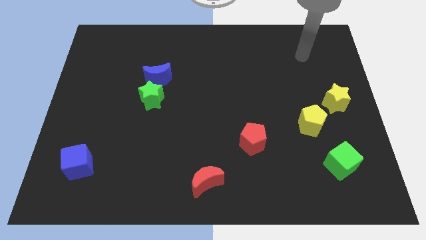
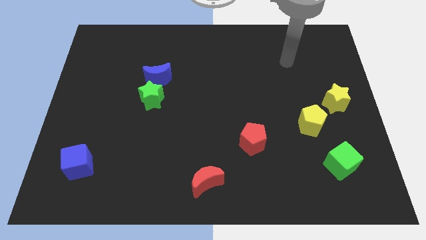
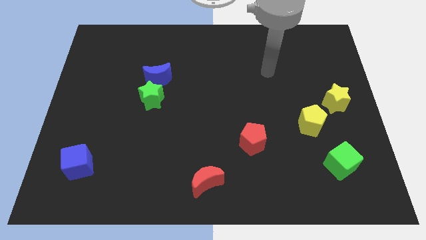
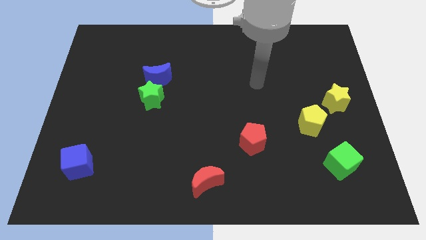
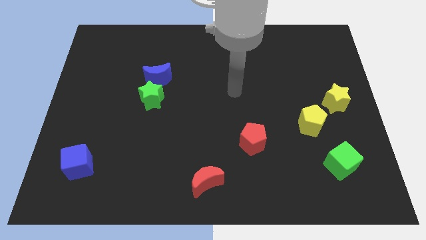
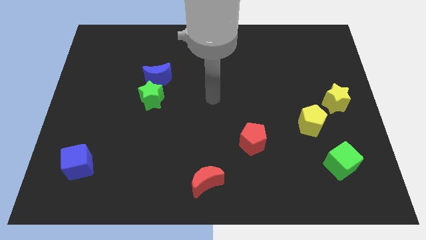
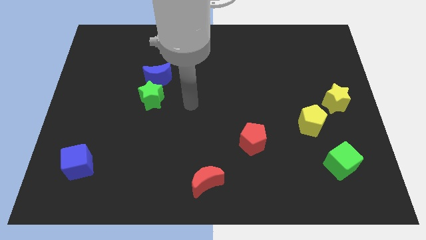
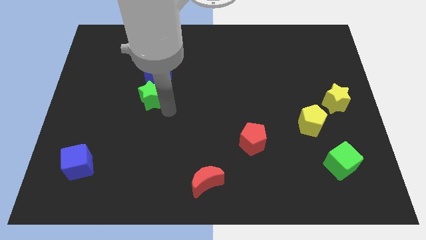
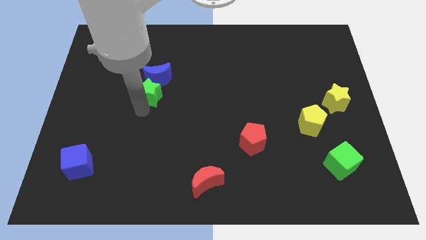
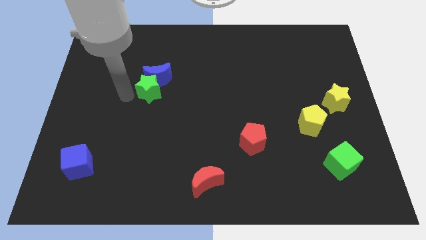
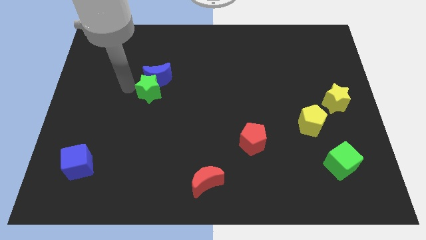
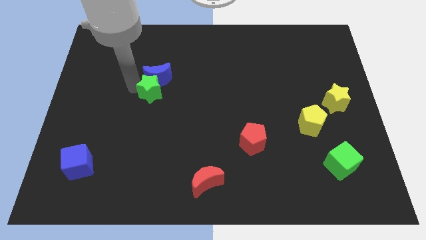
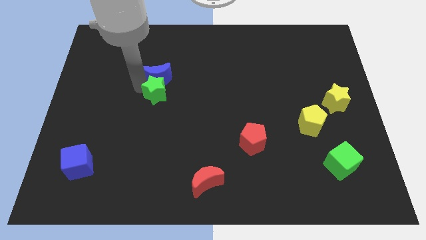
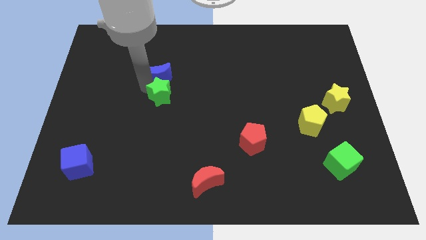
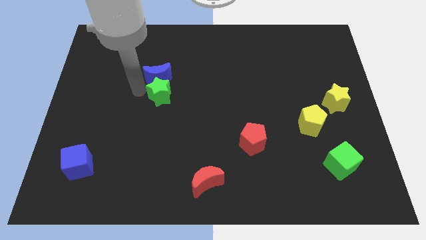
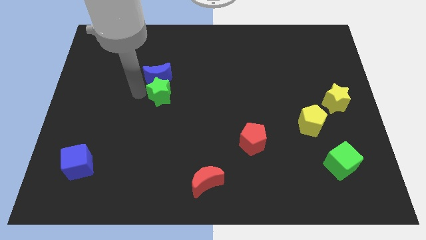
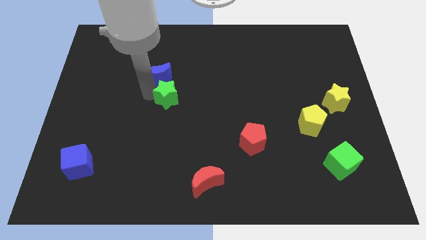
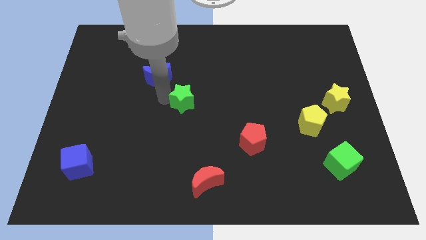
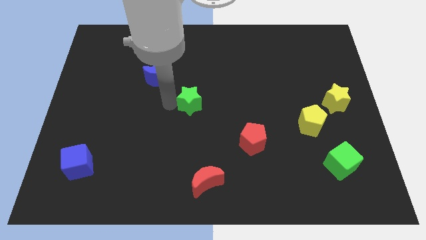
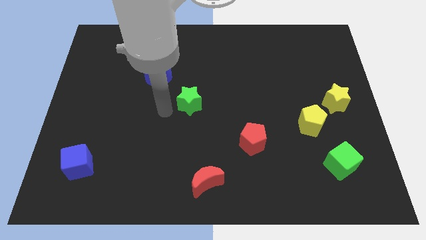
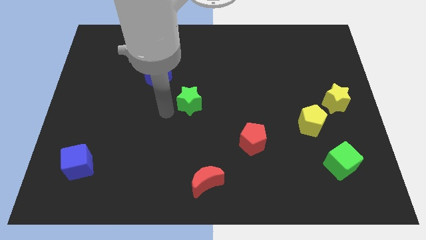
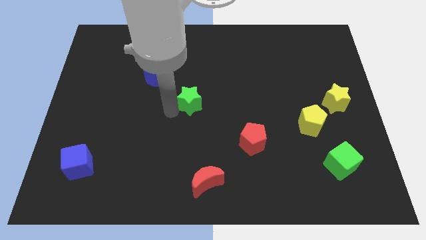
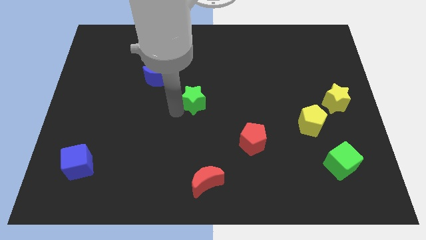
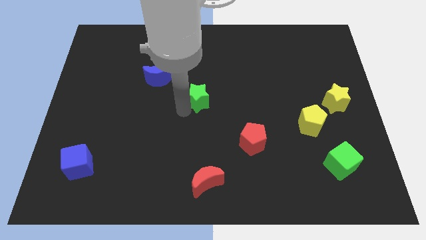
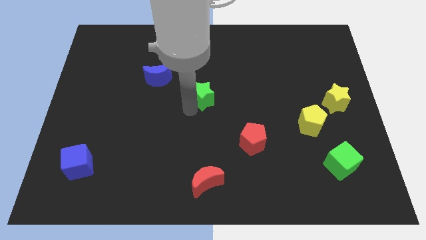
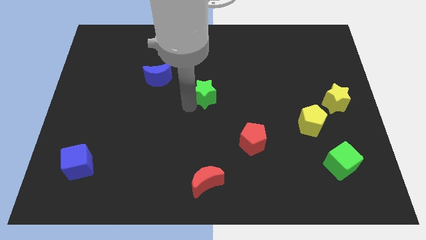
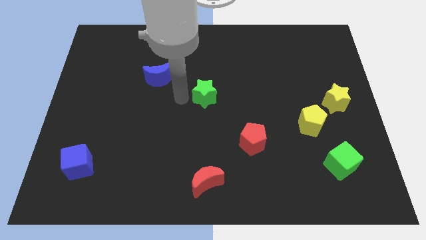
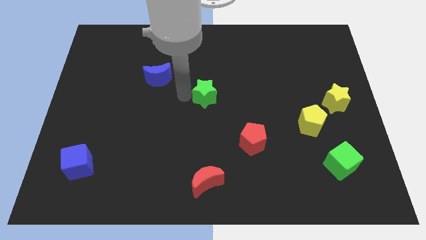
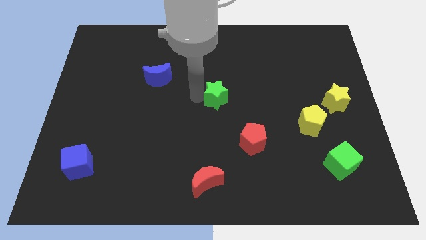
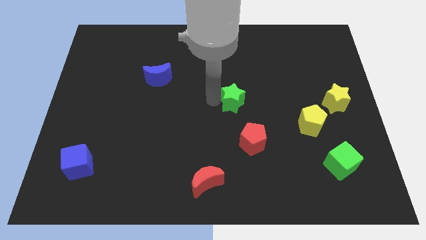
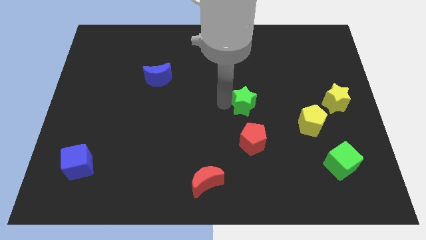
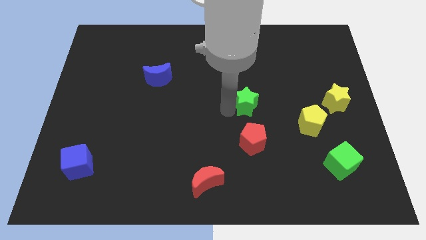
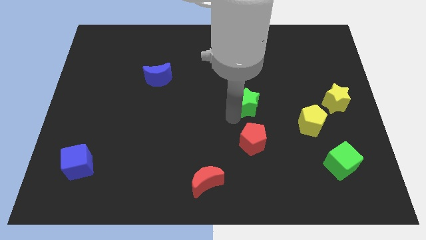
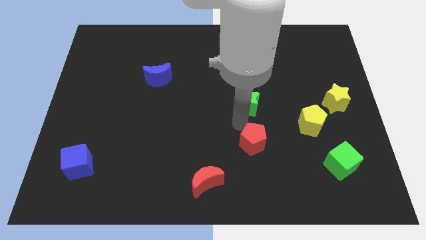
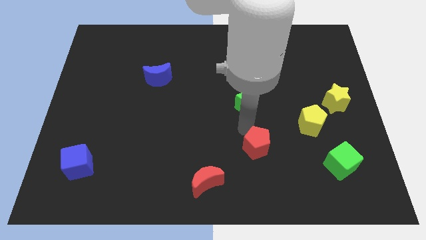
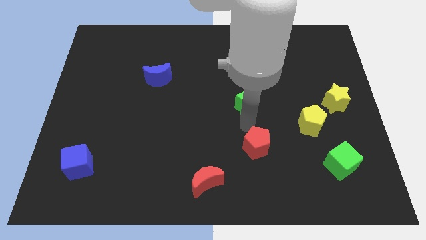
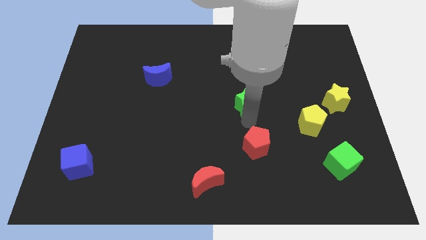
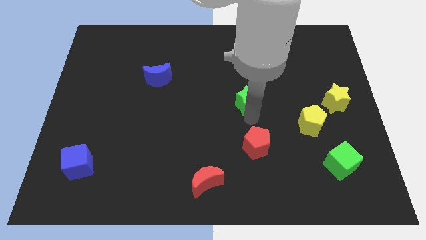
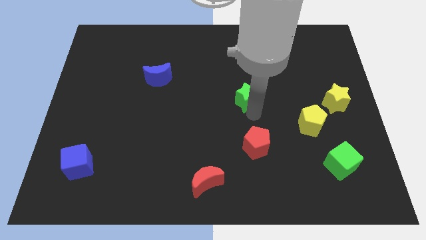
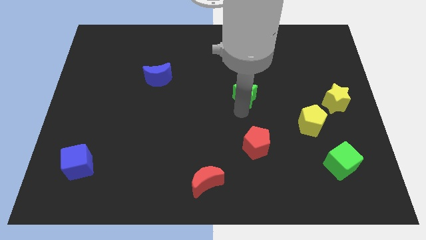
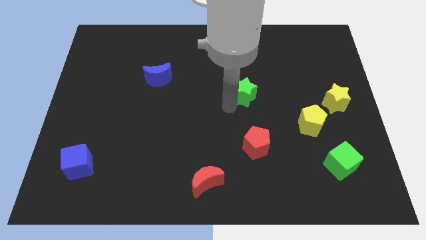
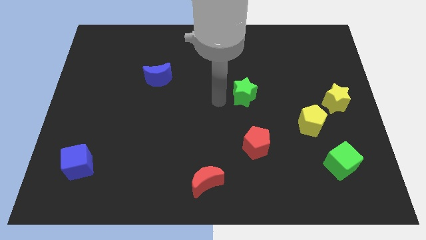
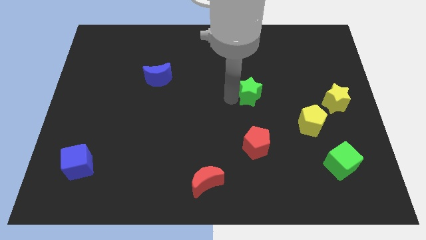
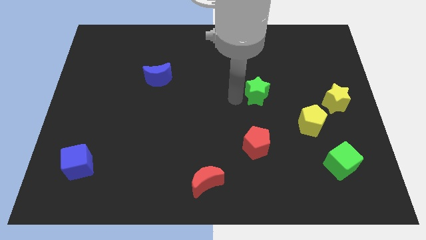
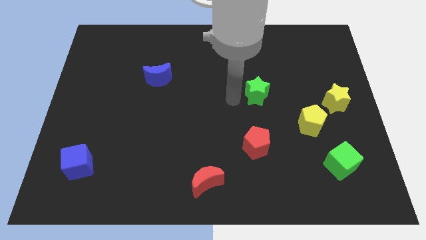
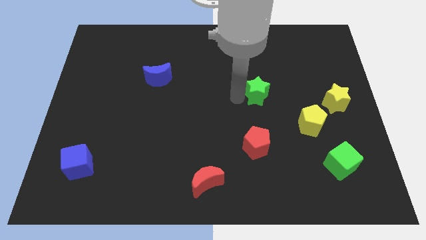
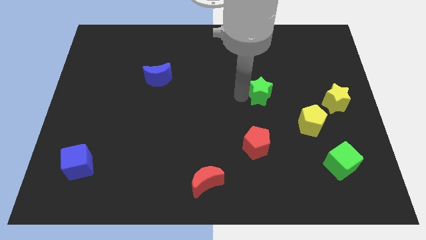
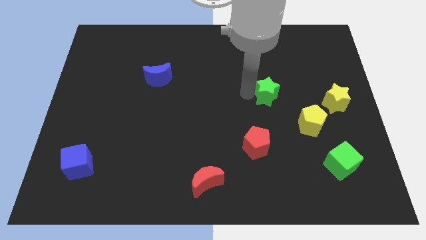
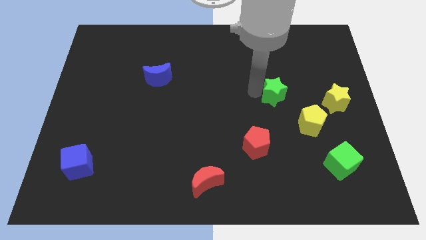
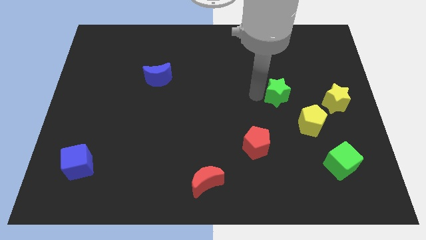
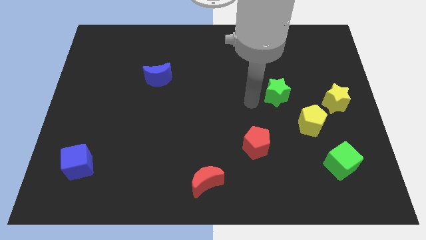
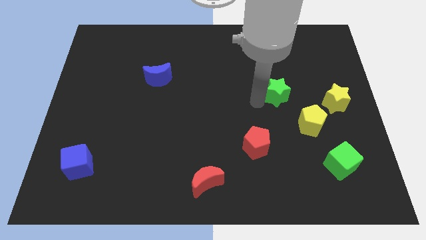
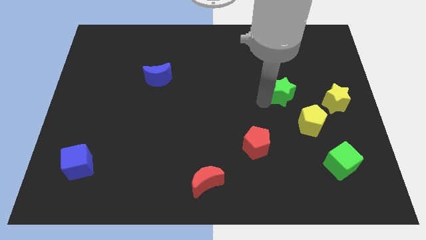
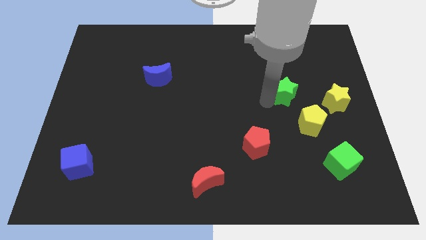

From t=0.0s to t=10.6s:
push the green star to the top of the yellow pentagon

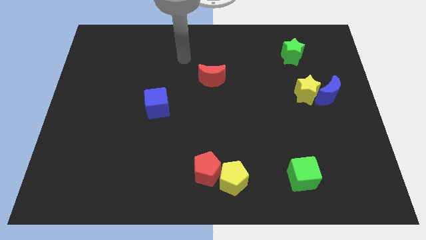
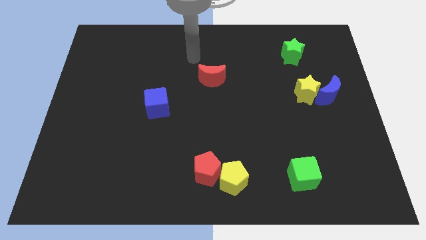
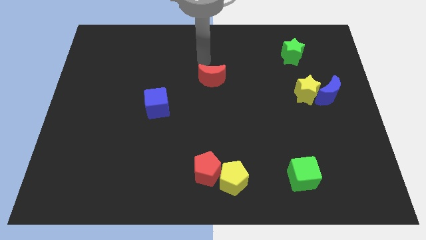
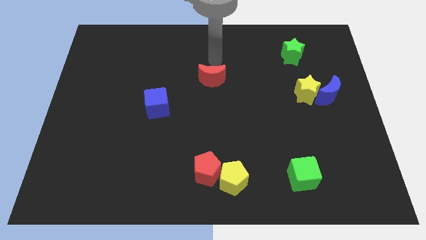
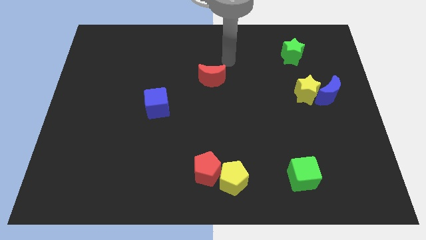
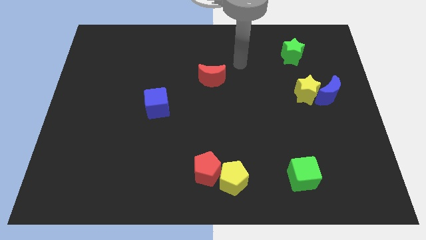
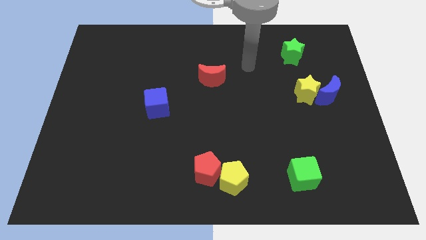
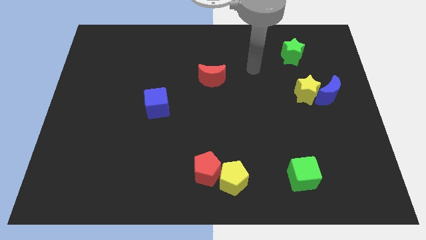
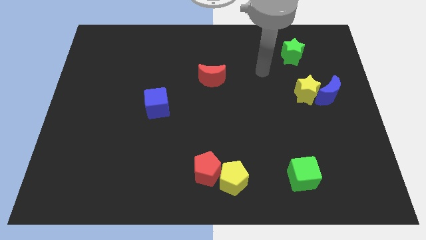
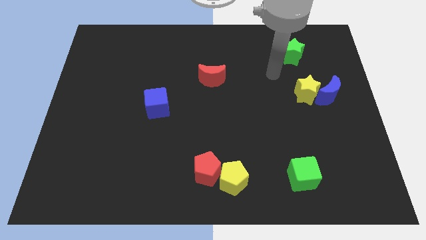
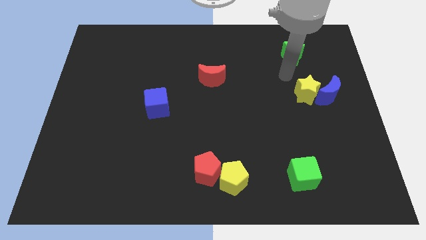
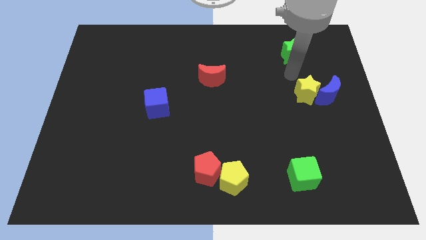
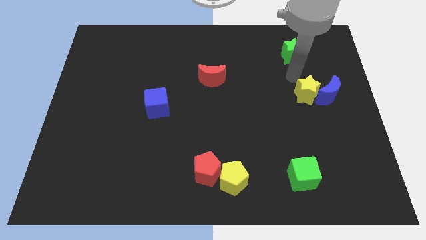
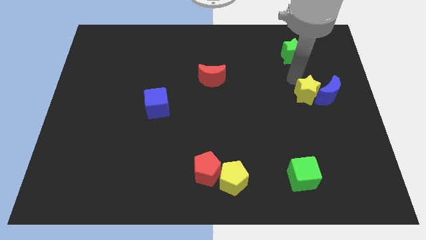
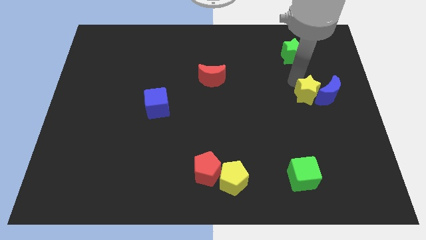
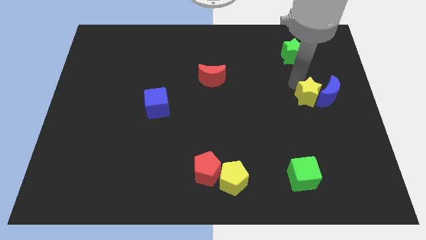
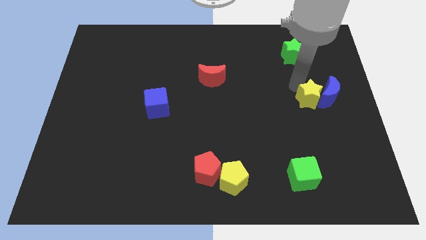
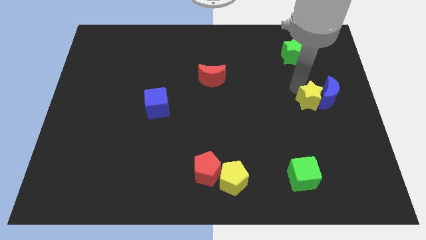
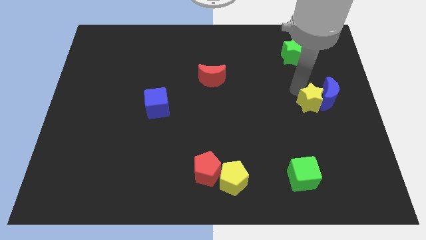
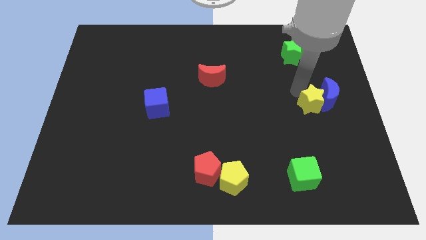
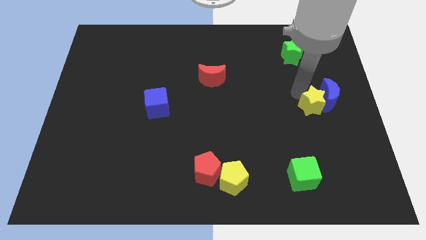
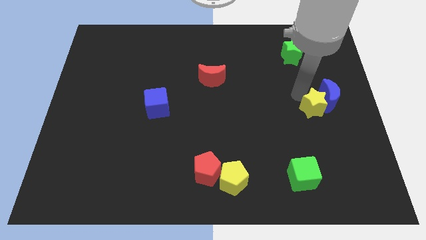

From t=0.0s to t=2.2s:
put the yellow star to the bottom side of the blue moon

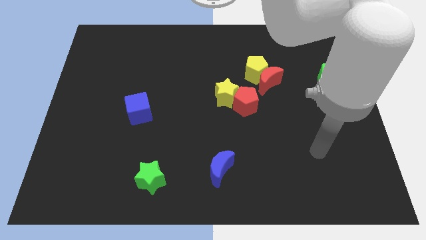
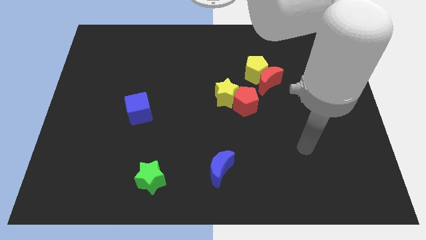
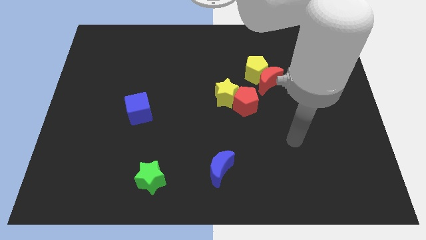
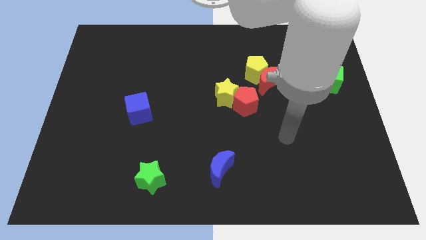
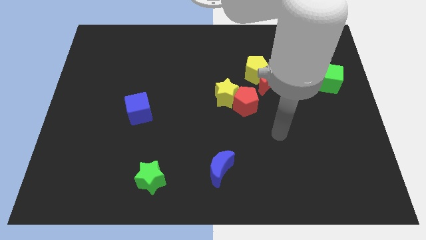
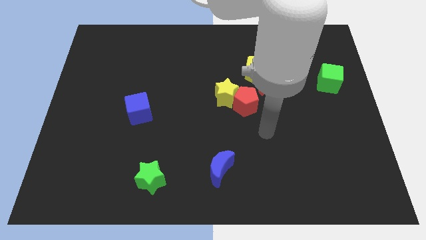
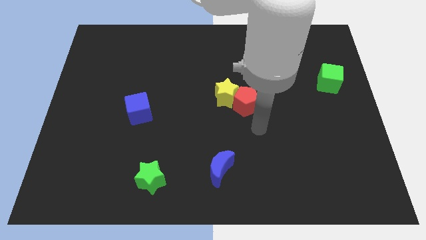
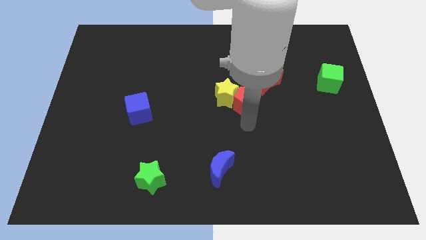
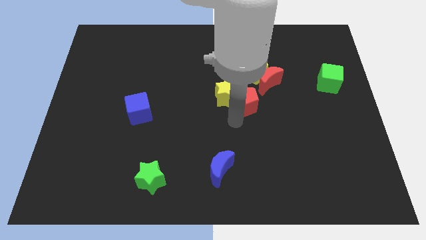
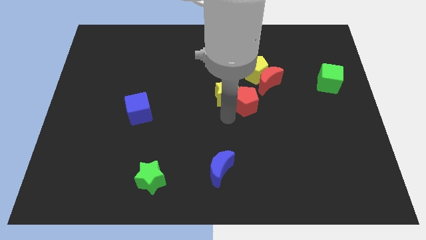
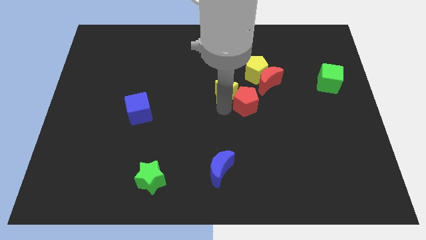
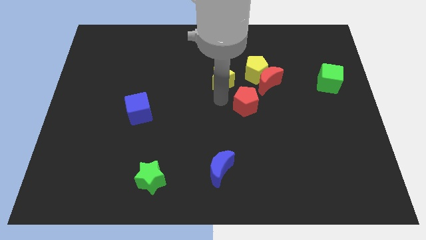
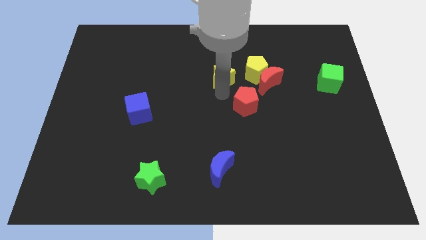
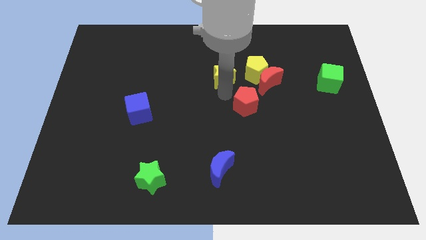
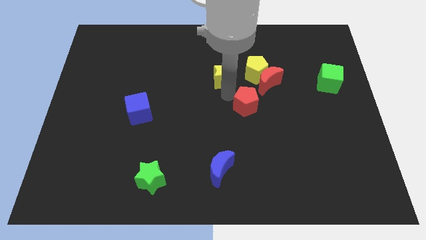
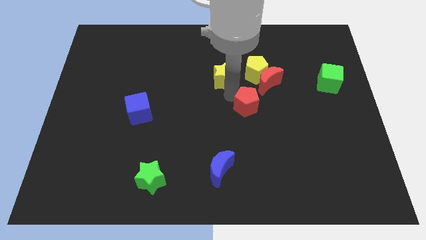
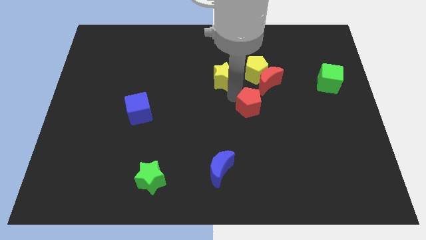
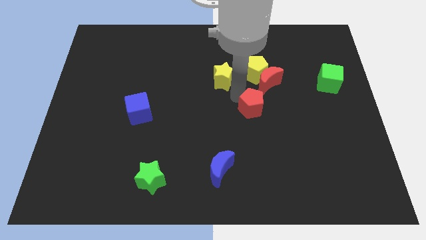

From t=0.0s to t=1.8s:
move the red pentagon to the bottom side of the red moon
